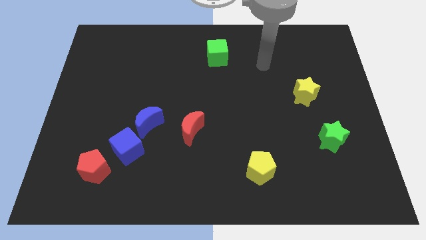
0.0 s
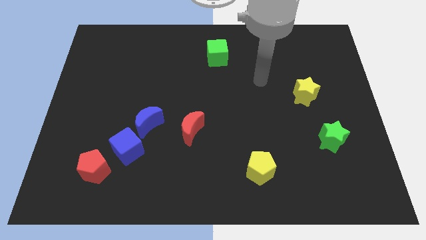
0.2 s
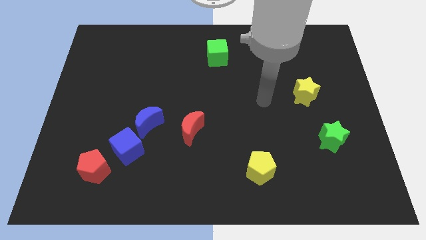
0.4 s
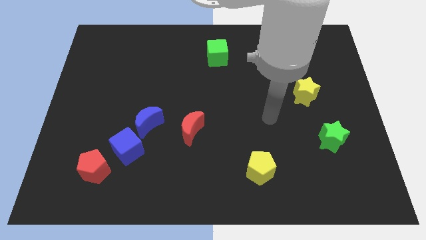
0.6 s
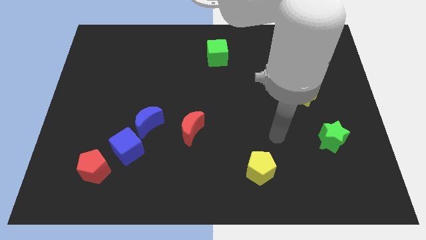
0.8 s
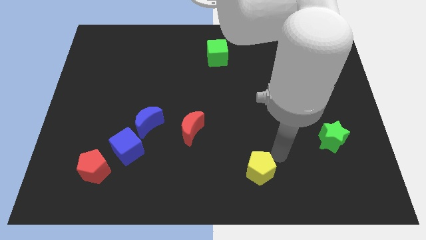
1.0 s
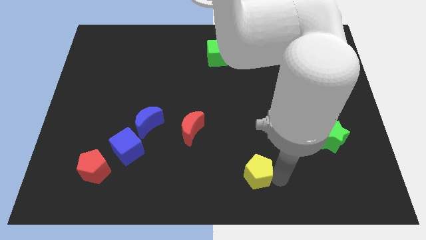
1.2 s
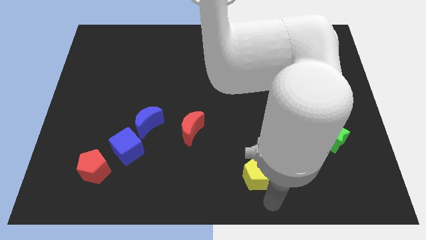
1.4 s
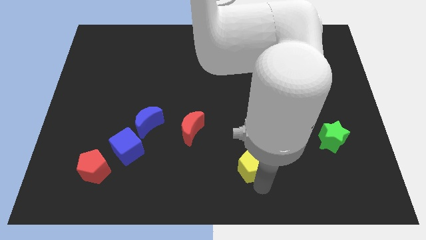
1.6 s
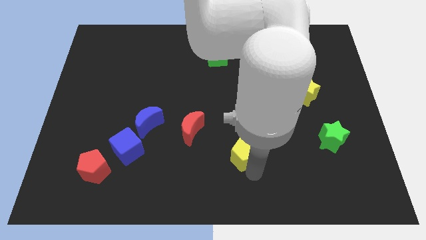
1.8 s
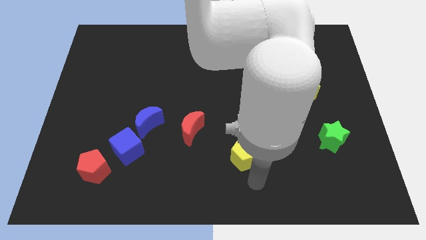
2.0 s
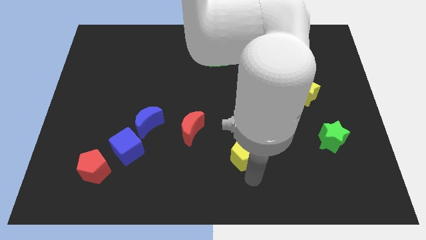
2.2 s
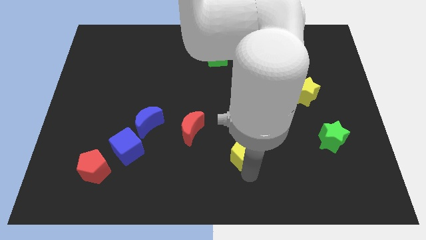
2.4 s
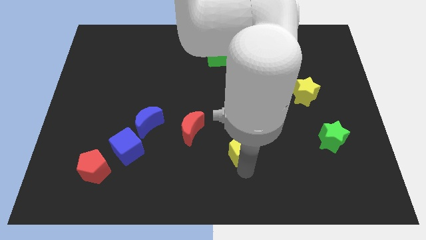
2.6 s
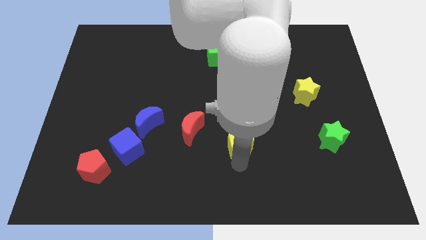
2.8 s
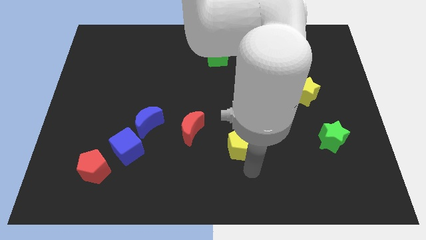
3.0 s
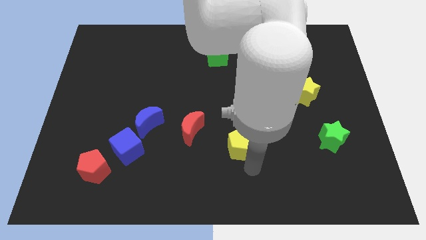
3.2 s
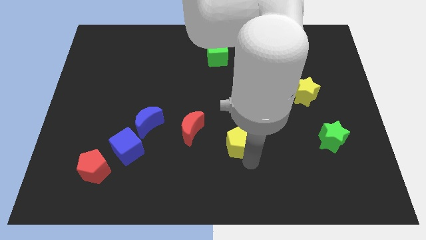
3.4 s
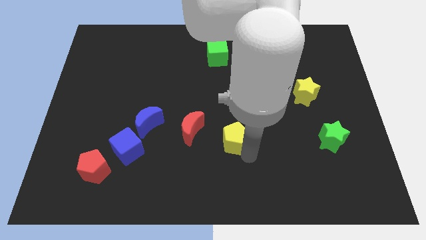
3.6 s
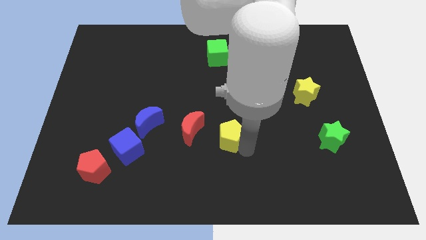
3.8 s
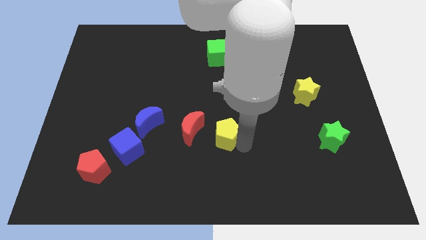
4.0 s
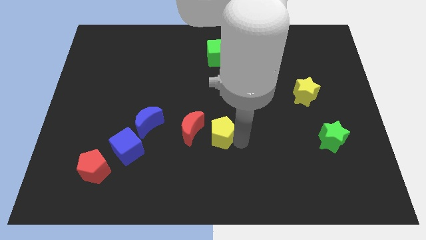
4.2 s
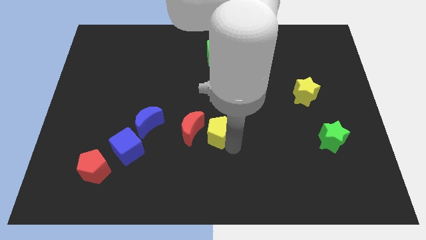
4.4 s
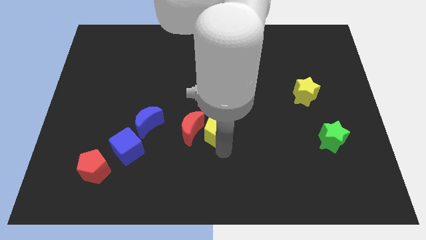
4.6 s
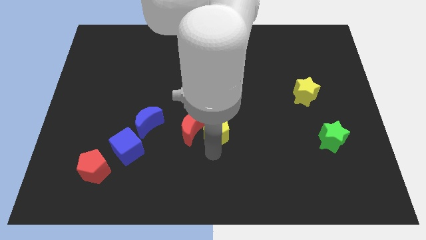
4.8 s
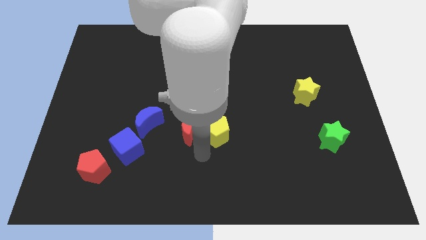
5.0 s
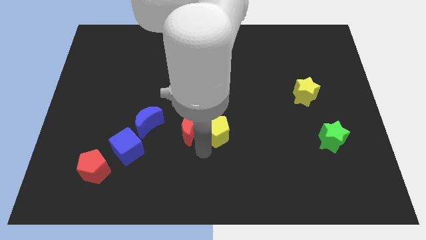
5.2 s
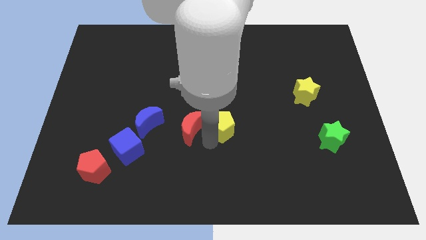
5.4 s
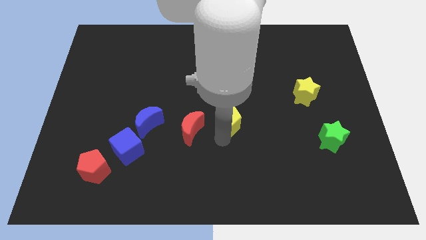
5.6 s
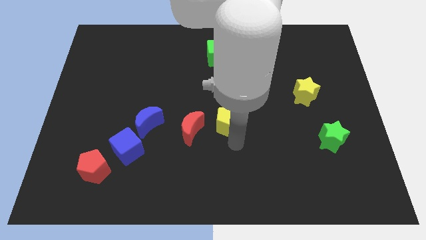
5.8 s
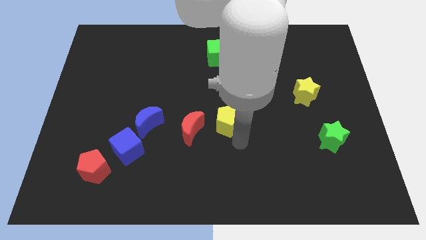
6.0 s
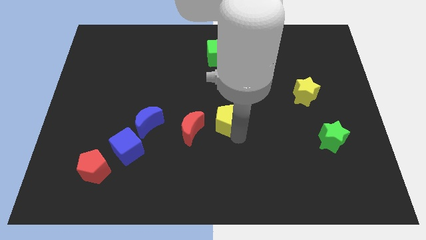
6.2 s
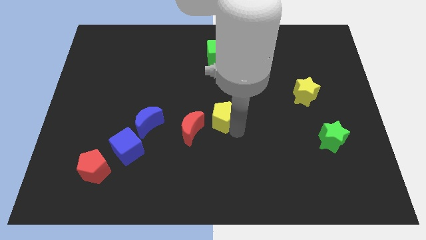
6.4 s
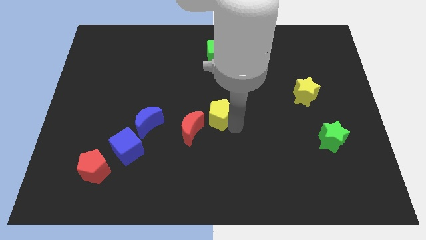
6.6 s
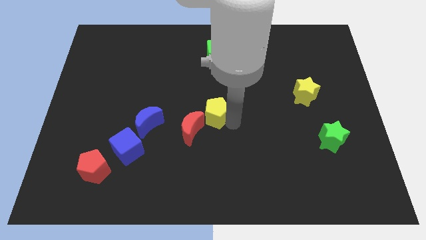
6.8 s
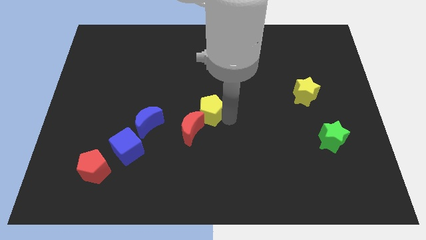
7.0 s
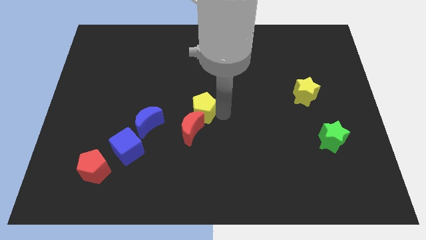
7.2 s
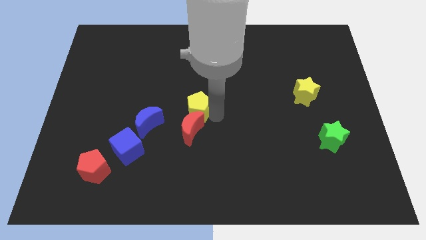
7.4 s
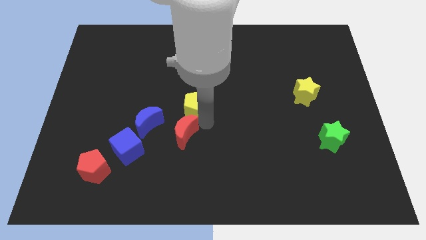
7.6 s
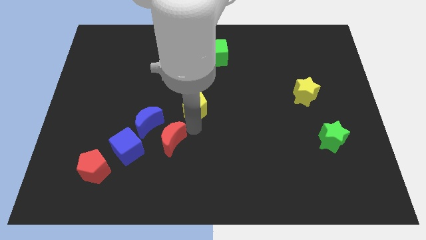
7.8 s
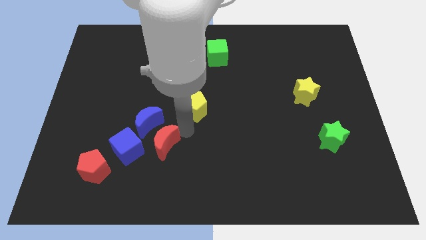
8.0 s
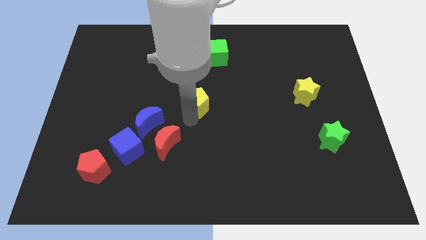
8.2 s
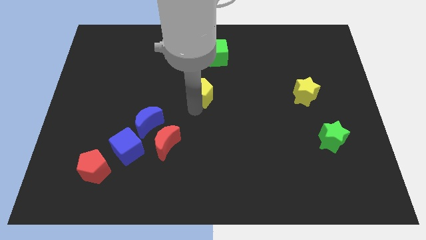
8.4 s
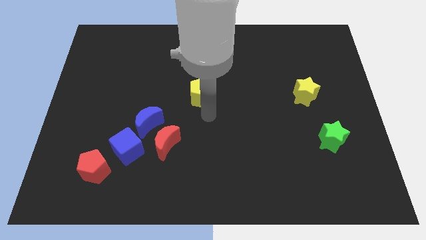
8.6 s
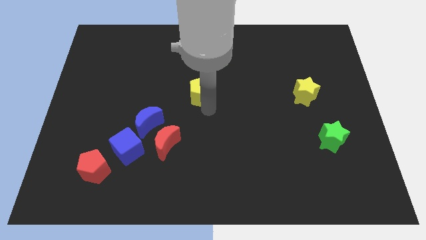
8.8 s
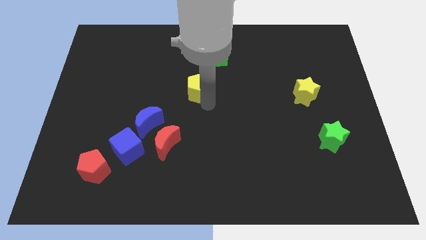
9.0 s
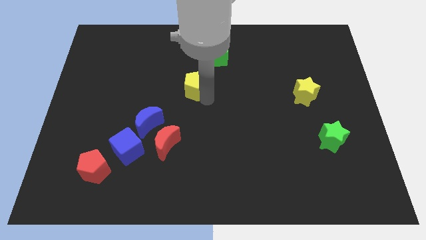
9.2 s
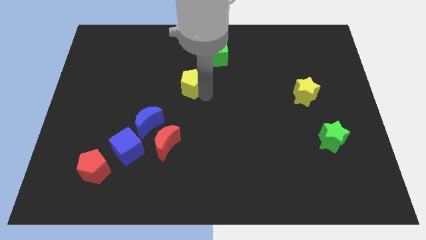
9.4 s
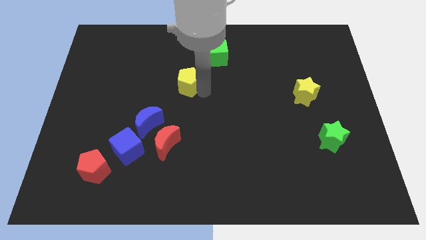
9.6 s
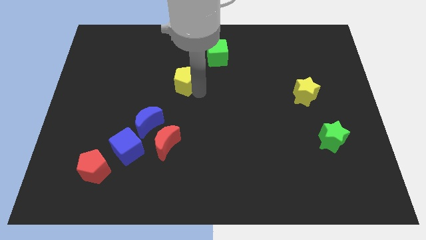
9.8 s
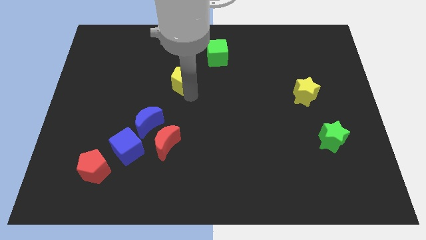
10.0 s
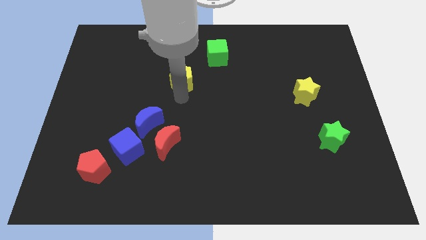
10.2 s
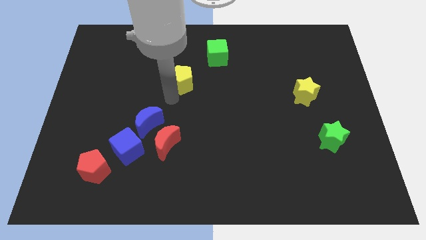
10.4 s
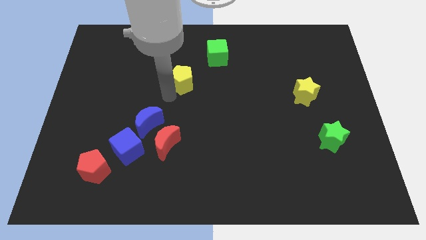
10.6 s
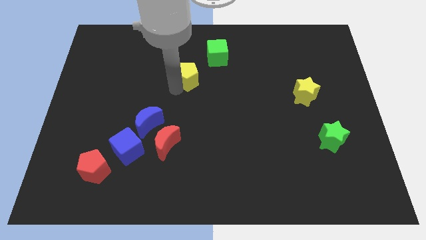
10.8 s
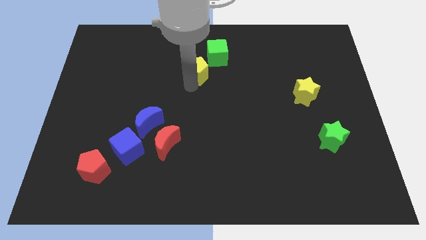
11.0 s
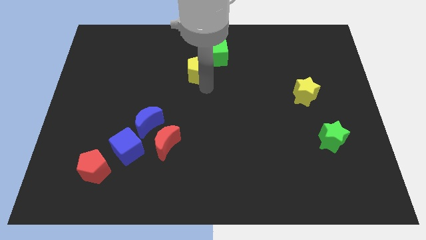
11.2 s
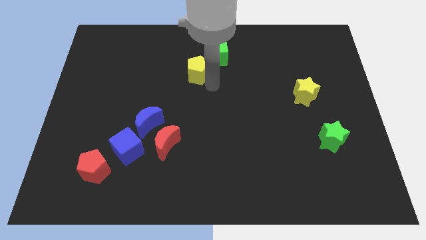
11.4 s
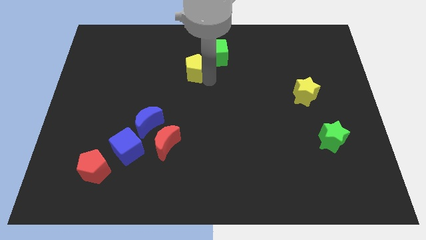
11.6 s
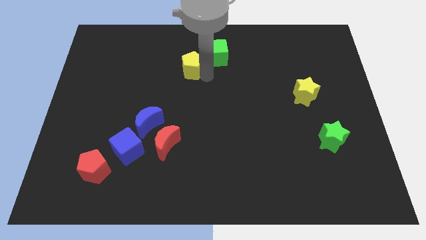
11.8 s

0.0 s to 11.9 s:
push the yellow pentagon to the left side of the green cube

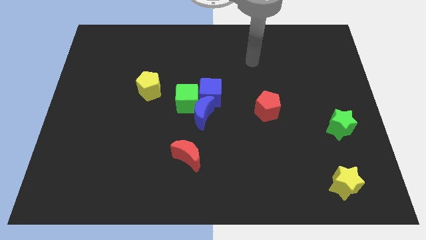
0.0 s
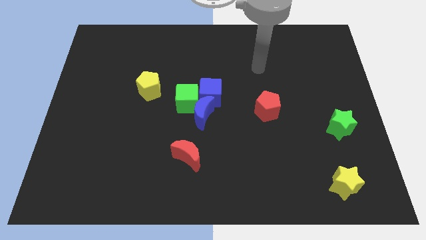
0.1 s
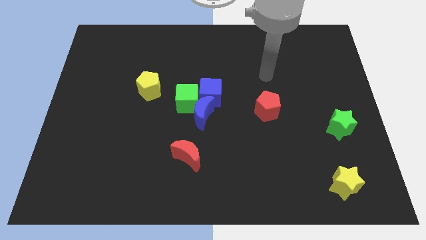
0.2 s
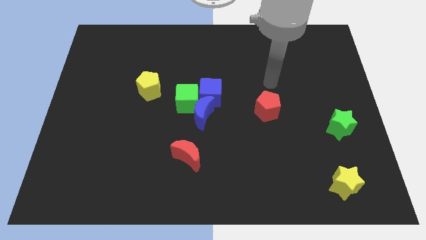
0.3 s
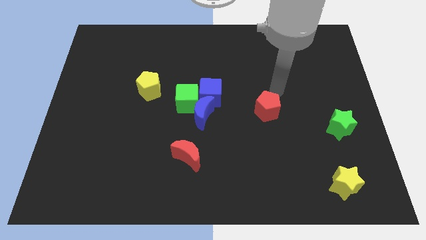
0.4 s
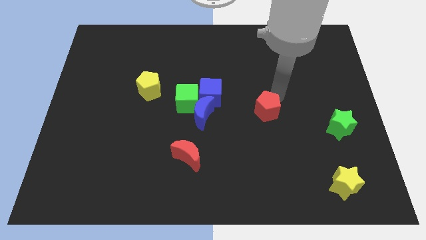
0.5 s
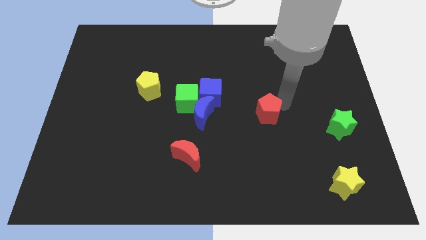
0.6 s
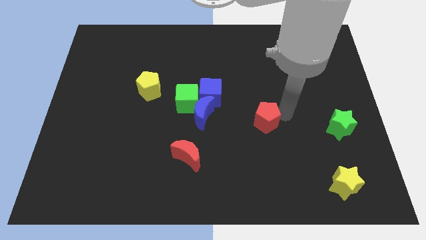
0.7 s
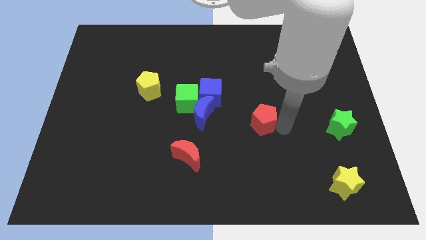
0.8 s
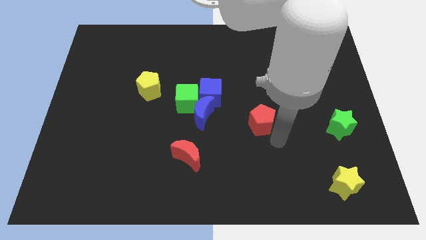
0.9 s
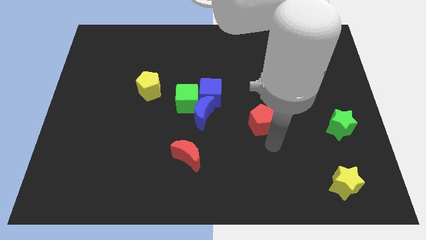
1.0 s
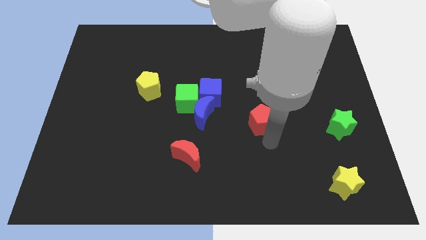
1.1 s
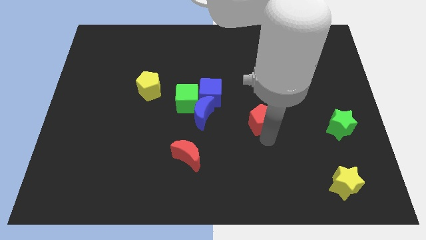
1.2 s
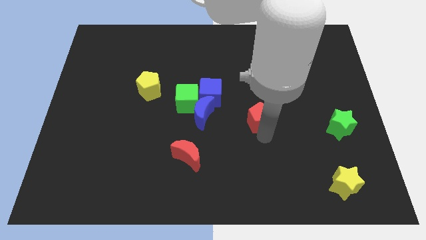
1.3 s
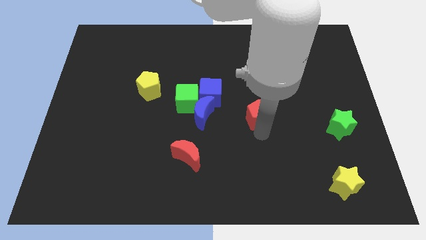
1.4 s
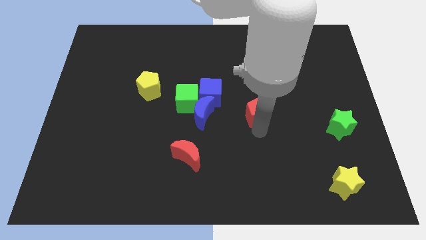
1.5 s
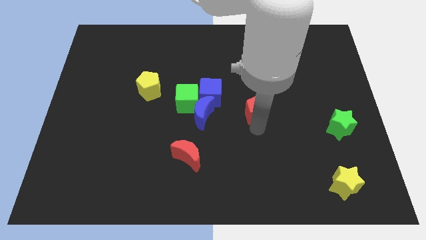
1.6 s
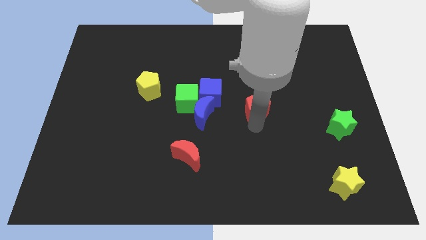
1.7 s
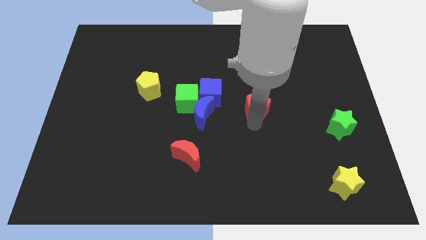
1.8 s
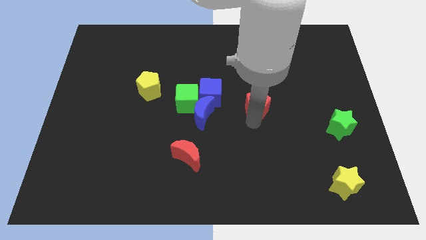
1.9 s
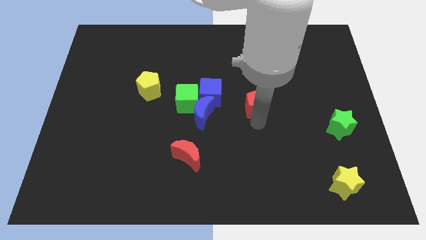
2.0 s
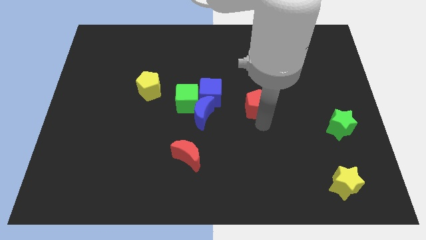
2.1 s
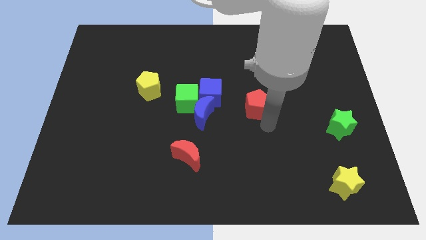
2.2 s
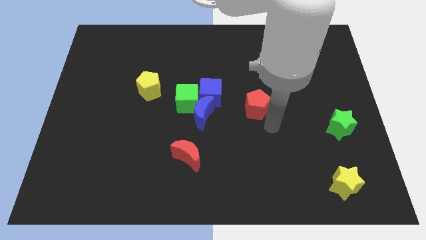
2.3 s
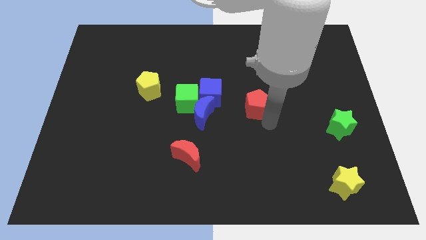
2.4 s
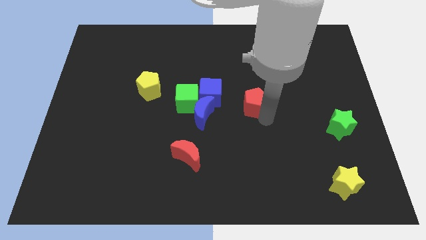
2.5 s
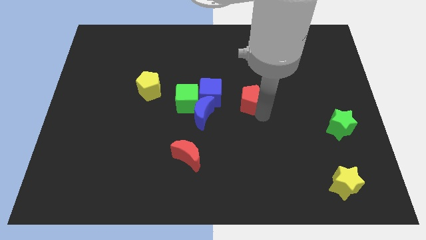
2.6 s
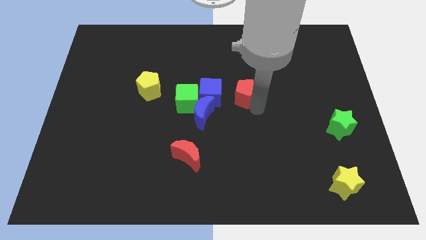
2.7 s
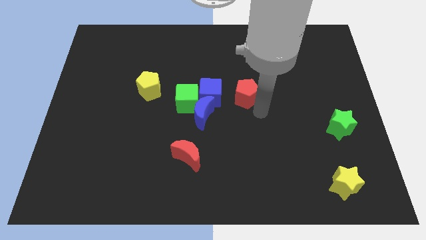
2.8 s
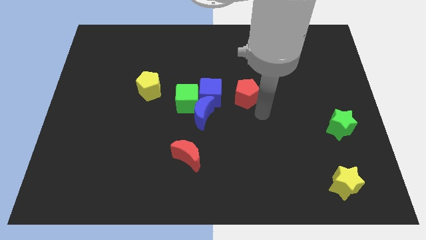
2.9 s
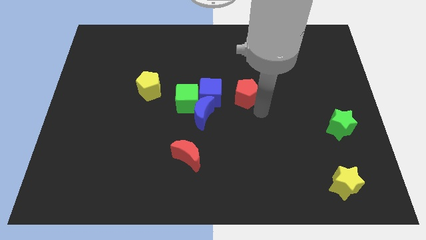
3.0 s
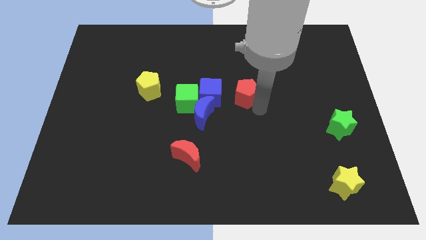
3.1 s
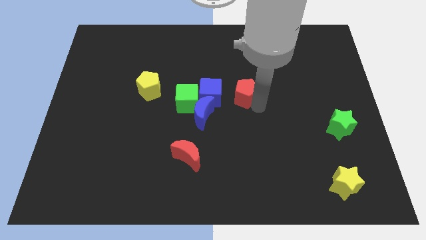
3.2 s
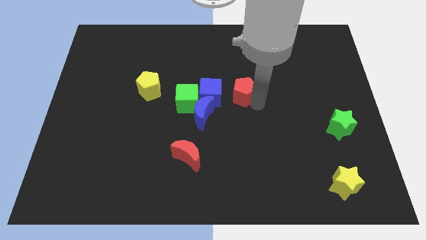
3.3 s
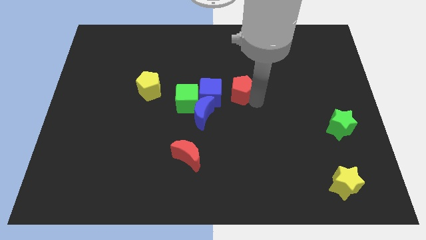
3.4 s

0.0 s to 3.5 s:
slide the red pentagon diagonally up and to the right of the blue cube
